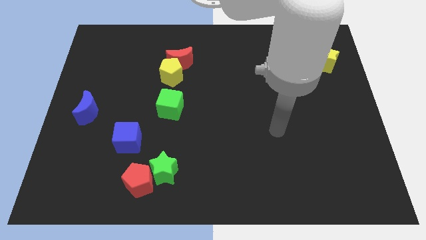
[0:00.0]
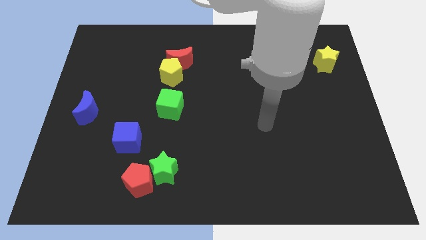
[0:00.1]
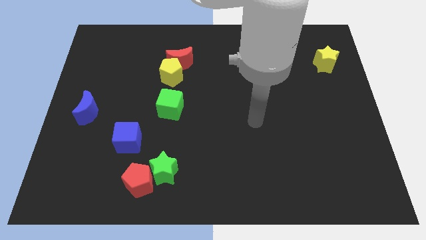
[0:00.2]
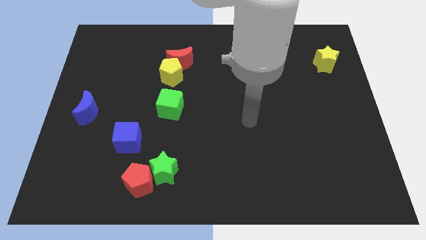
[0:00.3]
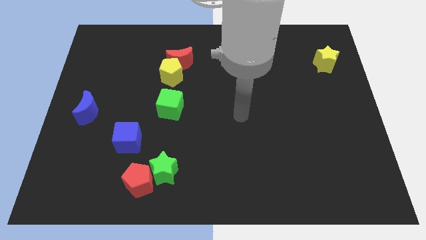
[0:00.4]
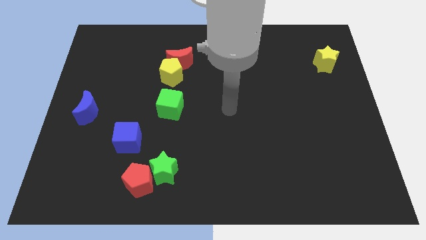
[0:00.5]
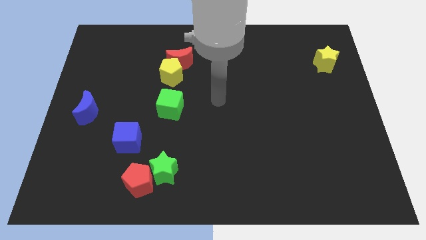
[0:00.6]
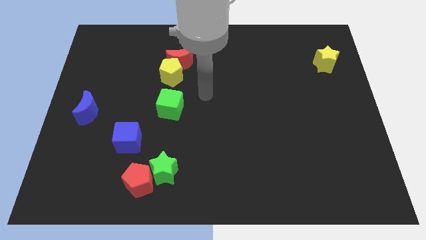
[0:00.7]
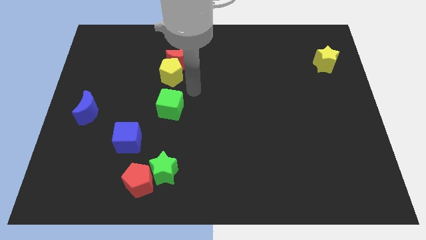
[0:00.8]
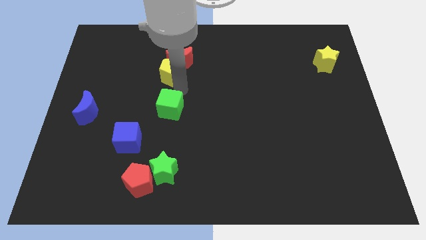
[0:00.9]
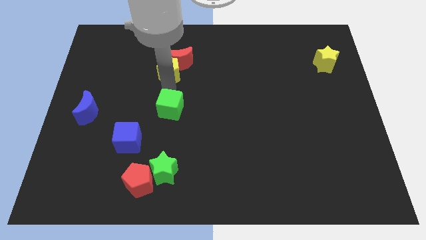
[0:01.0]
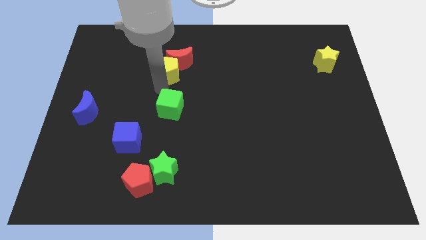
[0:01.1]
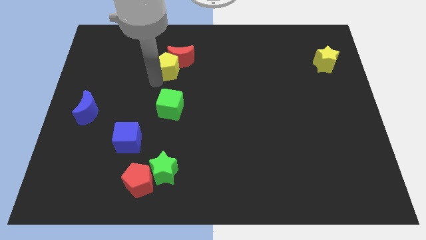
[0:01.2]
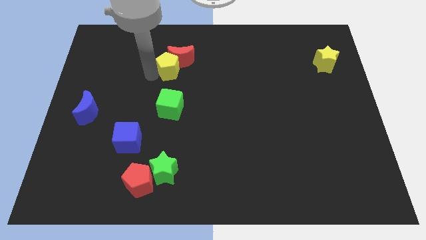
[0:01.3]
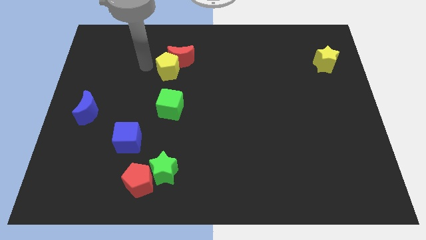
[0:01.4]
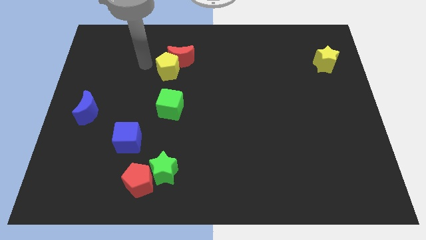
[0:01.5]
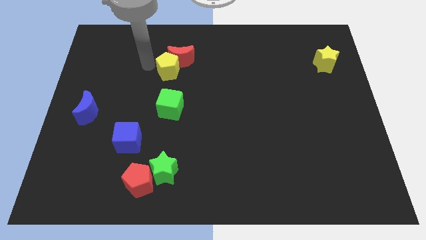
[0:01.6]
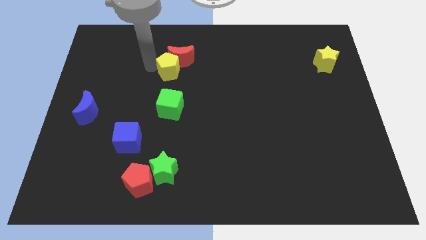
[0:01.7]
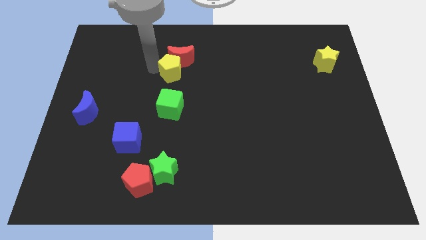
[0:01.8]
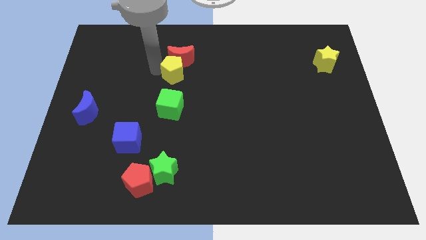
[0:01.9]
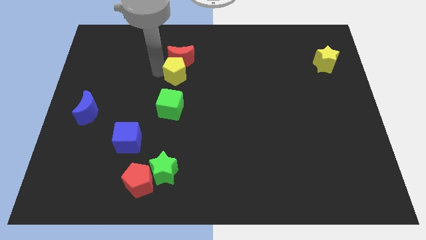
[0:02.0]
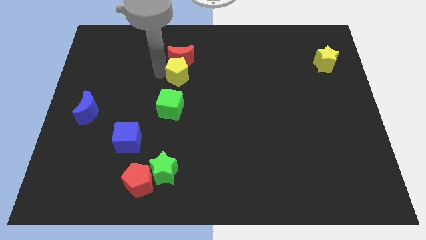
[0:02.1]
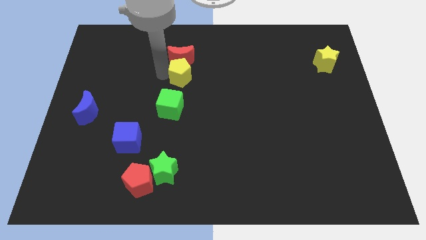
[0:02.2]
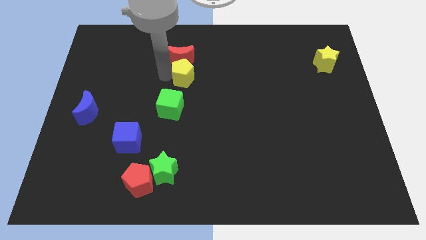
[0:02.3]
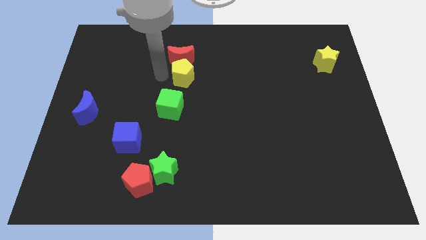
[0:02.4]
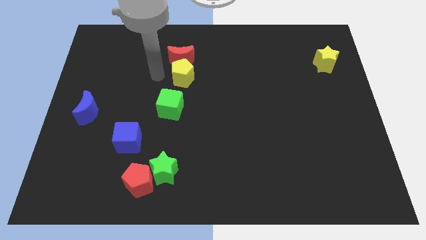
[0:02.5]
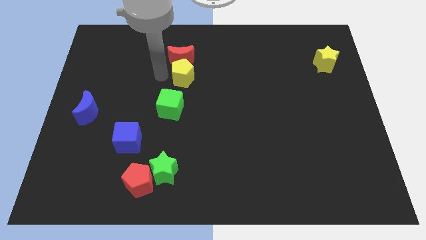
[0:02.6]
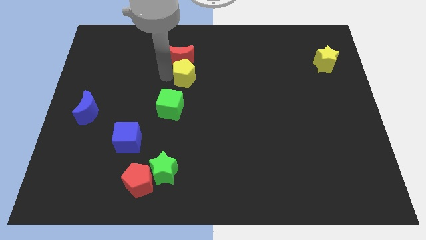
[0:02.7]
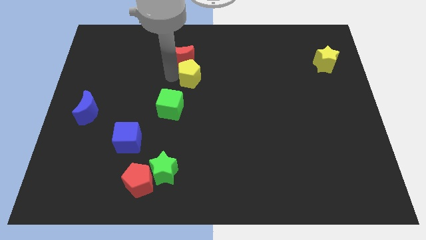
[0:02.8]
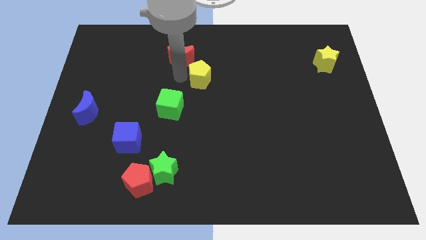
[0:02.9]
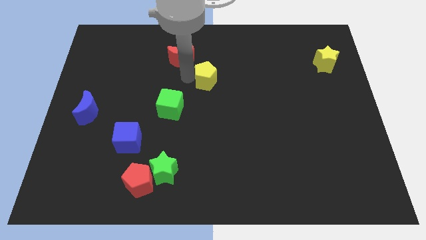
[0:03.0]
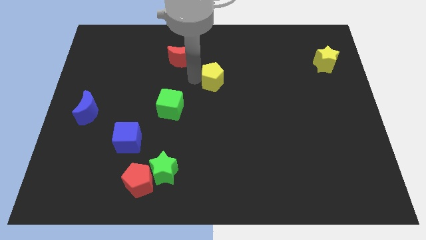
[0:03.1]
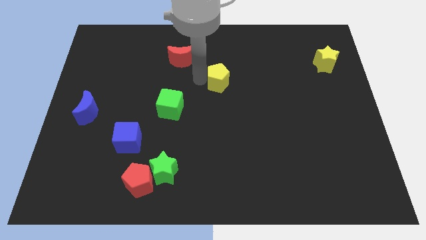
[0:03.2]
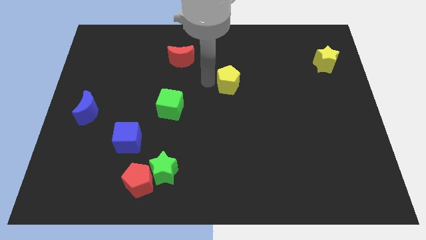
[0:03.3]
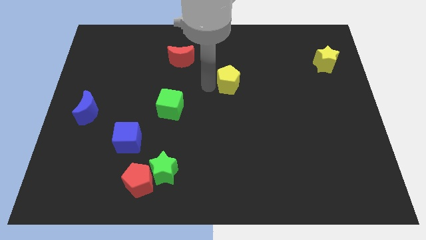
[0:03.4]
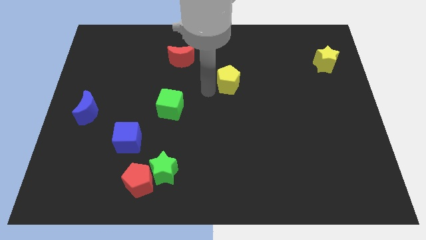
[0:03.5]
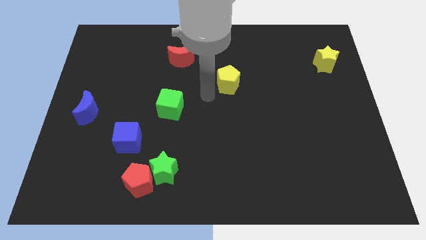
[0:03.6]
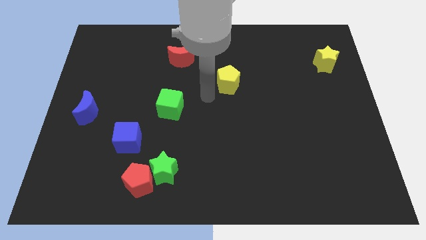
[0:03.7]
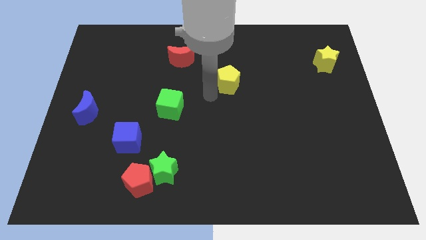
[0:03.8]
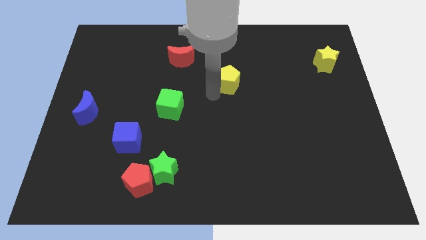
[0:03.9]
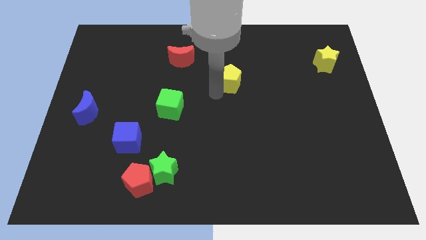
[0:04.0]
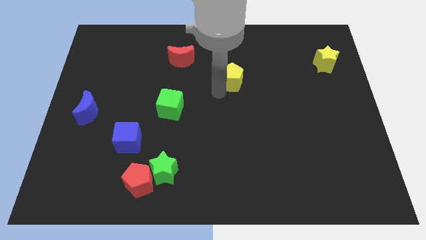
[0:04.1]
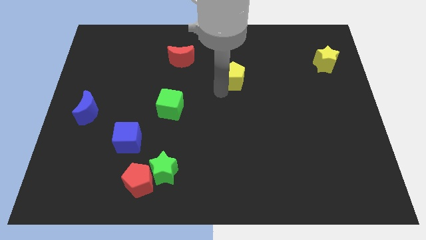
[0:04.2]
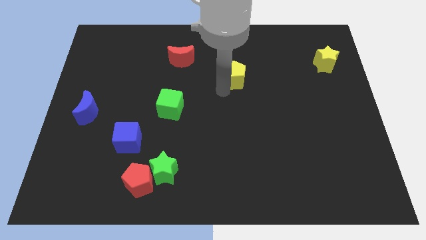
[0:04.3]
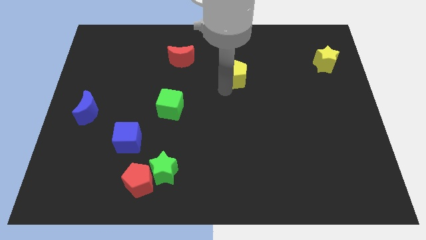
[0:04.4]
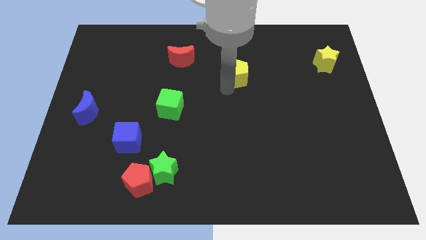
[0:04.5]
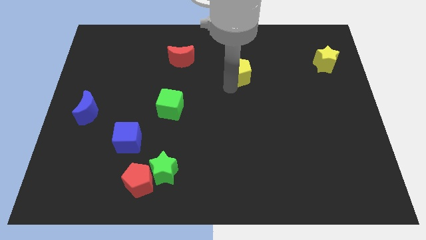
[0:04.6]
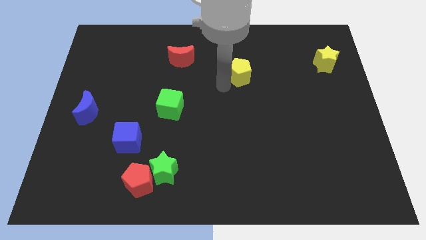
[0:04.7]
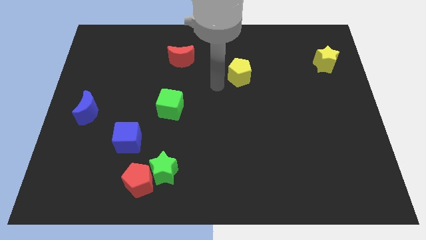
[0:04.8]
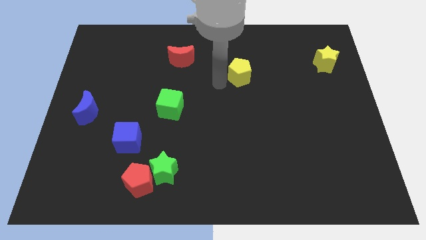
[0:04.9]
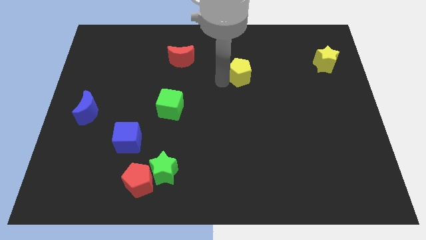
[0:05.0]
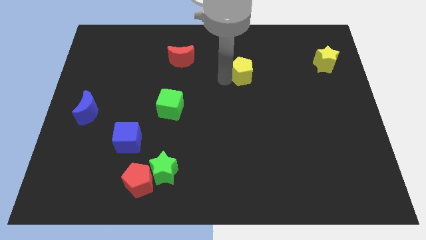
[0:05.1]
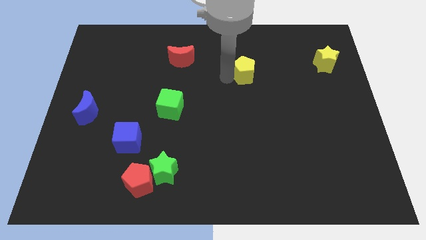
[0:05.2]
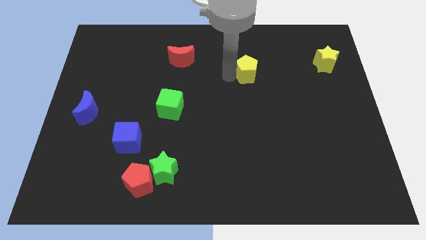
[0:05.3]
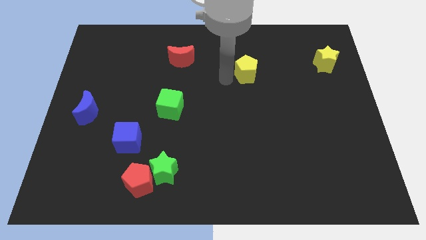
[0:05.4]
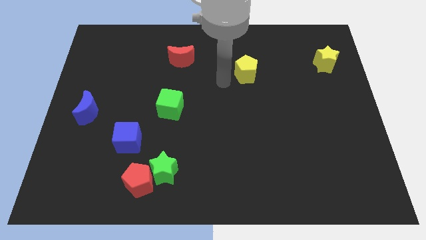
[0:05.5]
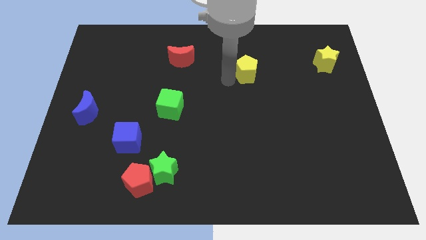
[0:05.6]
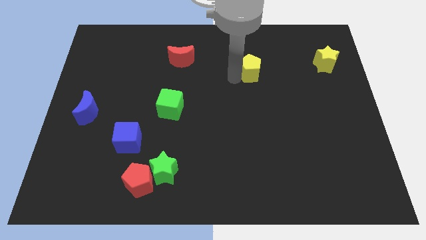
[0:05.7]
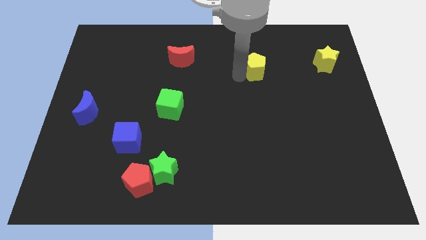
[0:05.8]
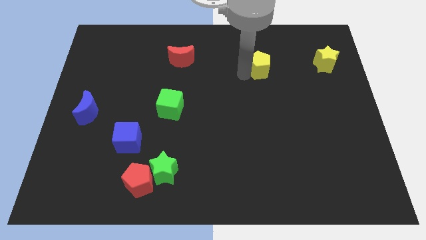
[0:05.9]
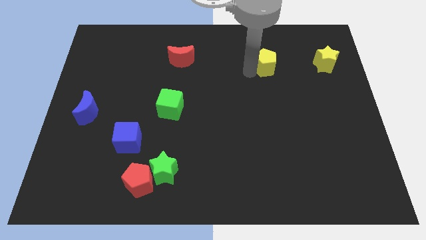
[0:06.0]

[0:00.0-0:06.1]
put the yellow pentagon to the left side of the yellow star

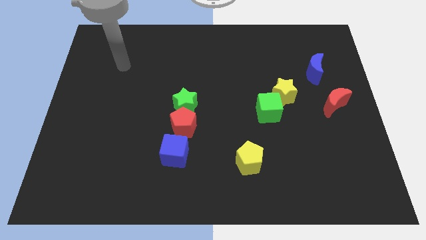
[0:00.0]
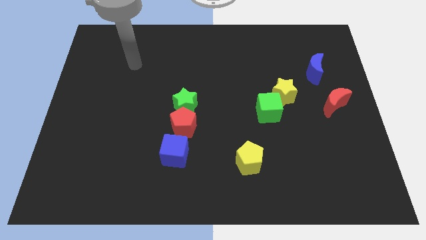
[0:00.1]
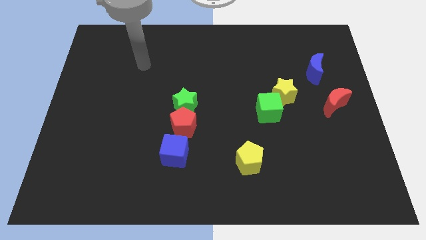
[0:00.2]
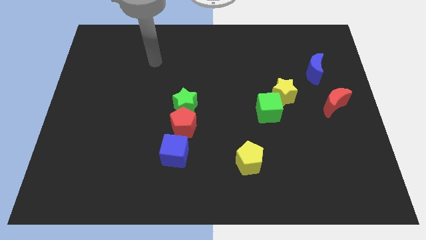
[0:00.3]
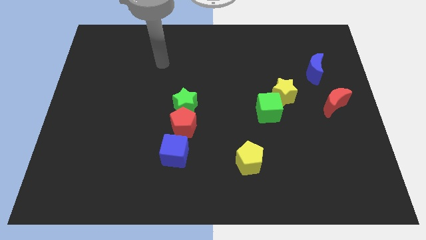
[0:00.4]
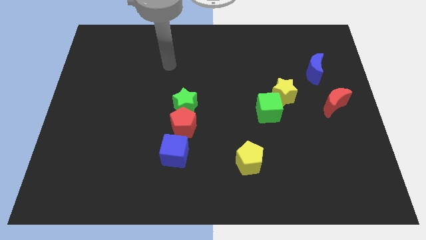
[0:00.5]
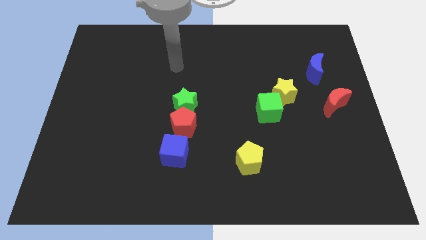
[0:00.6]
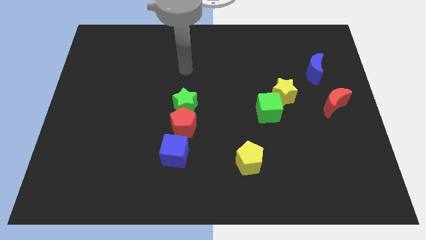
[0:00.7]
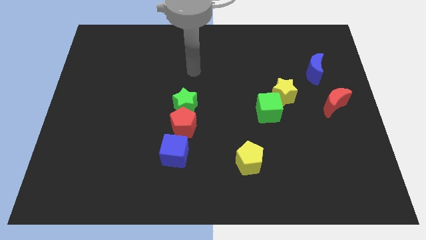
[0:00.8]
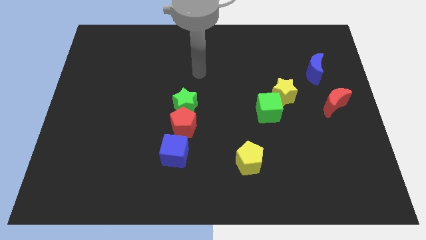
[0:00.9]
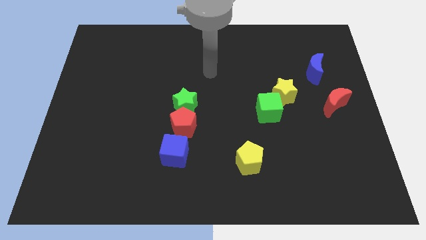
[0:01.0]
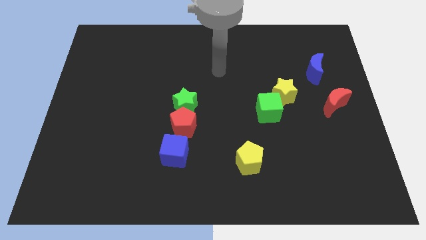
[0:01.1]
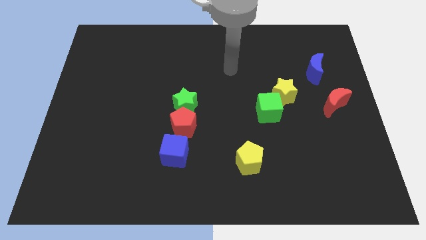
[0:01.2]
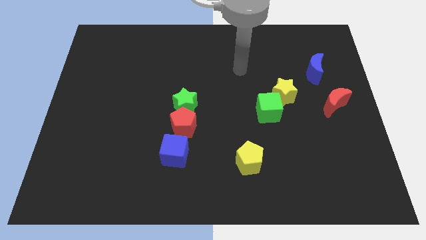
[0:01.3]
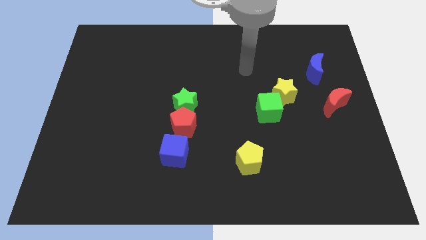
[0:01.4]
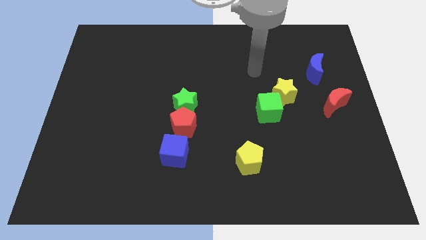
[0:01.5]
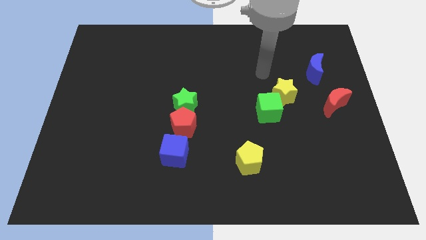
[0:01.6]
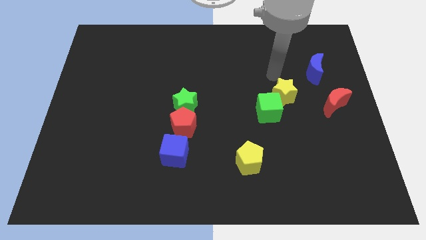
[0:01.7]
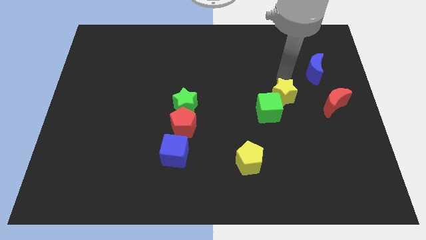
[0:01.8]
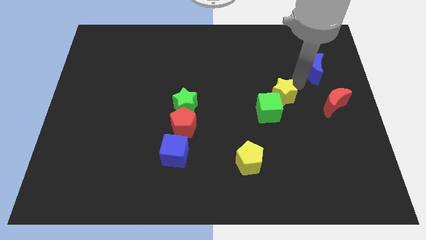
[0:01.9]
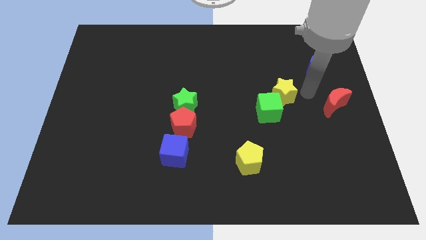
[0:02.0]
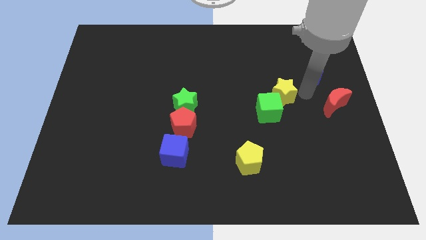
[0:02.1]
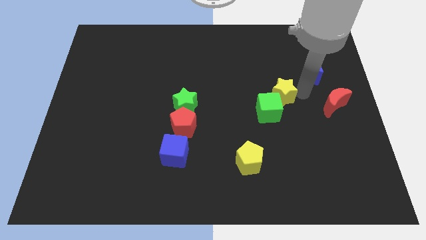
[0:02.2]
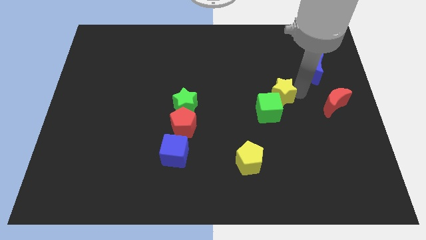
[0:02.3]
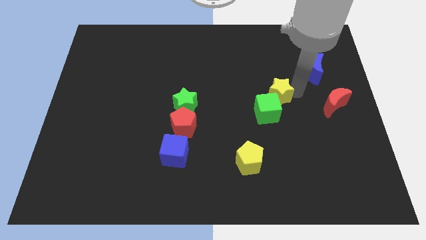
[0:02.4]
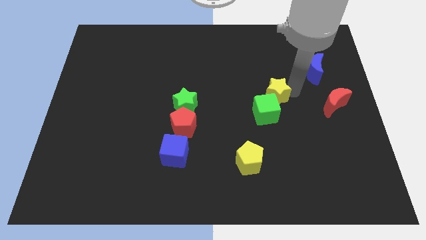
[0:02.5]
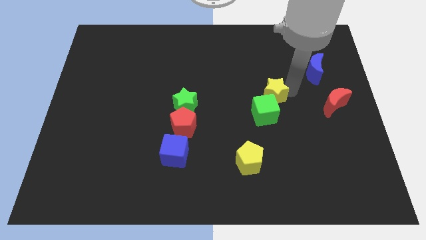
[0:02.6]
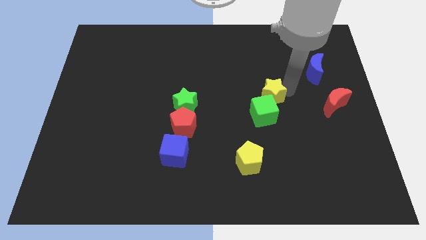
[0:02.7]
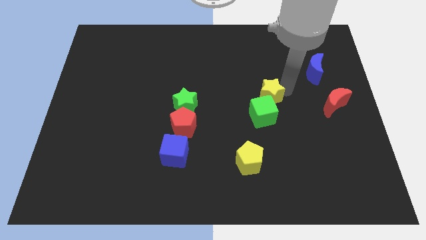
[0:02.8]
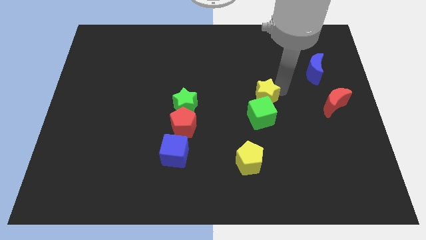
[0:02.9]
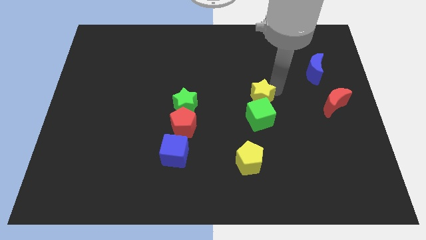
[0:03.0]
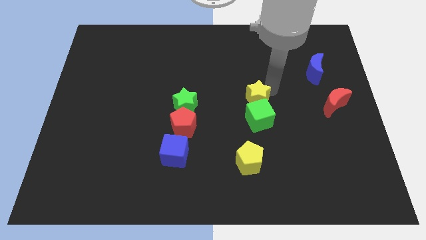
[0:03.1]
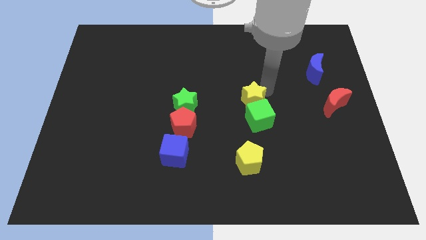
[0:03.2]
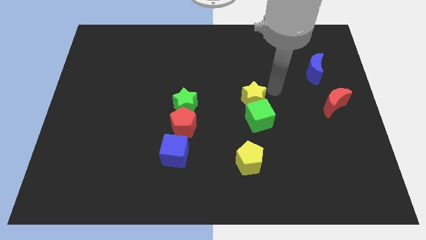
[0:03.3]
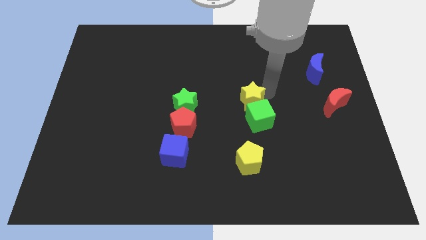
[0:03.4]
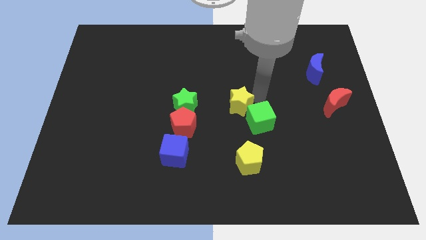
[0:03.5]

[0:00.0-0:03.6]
slide the yellow star to the left of the green cube
